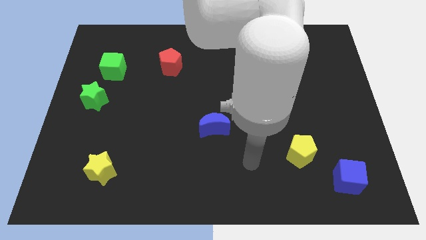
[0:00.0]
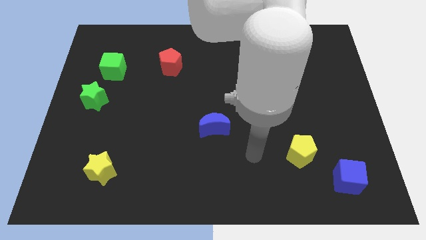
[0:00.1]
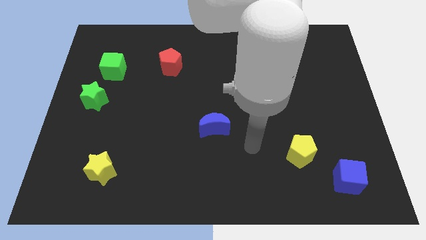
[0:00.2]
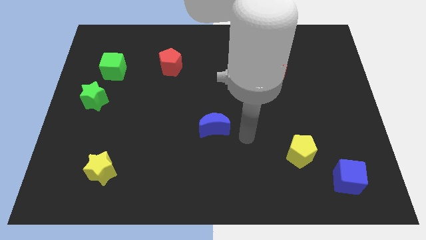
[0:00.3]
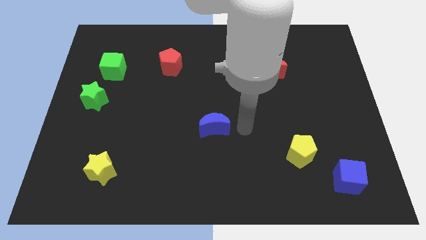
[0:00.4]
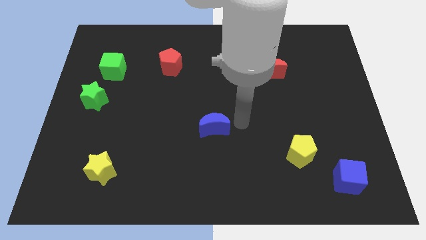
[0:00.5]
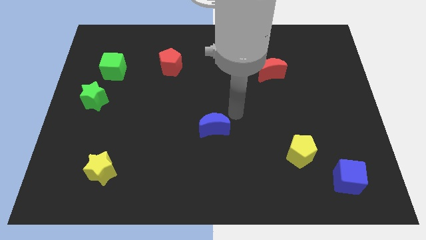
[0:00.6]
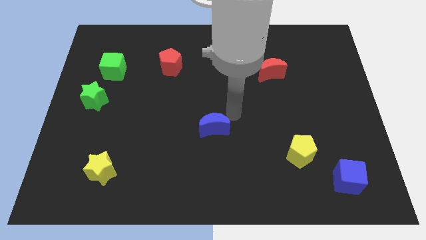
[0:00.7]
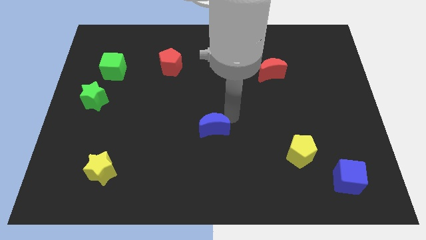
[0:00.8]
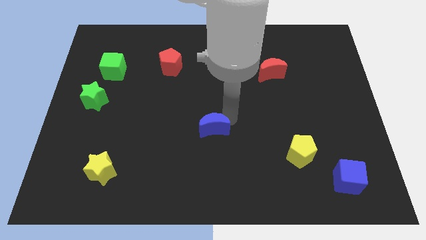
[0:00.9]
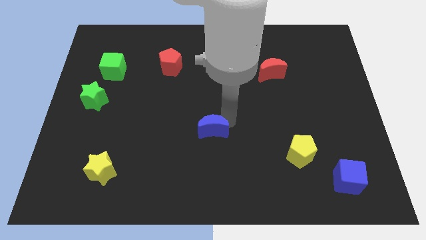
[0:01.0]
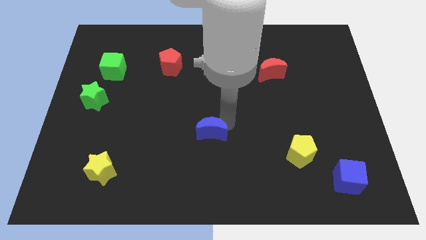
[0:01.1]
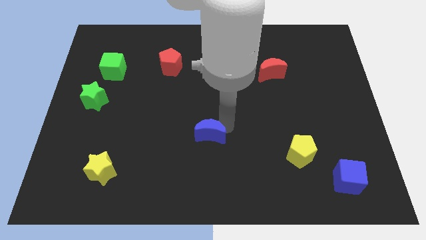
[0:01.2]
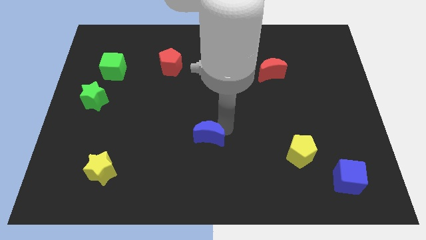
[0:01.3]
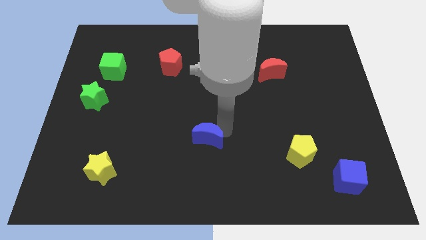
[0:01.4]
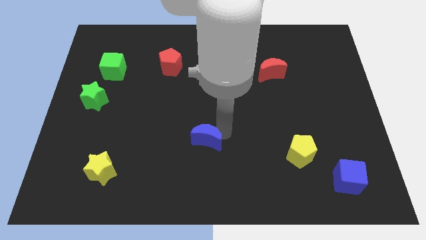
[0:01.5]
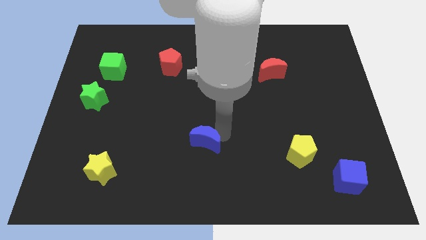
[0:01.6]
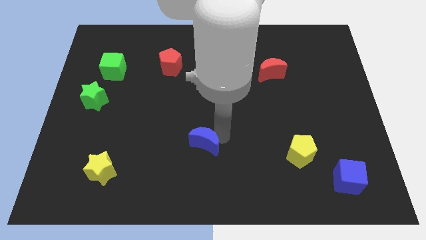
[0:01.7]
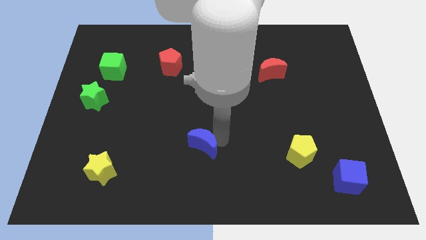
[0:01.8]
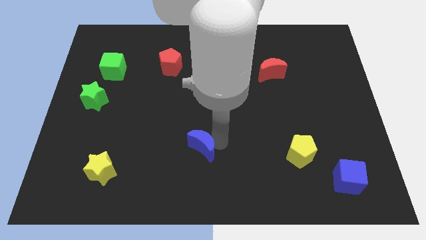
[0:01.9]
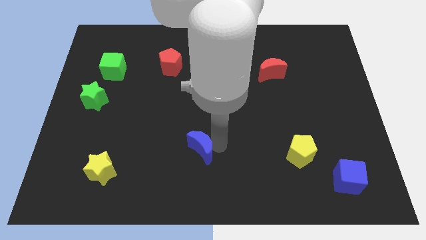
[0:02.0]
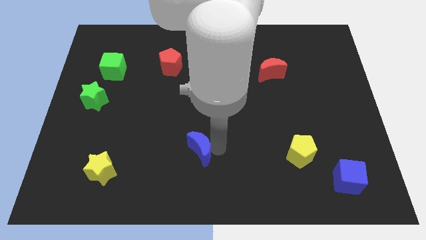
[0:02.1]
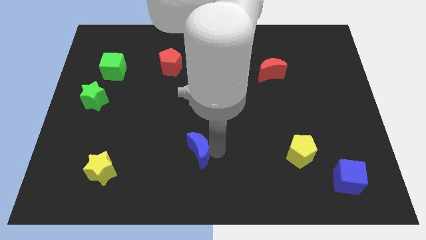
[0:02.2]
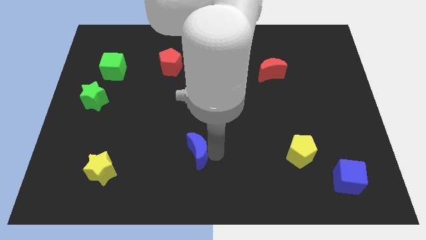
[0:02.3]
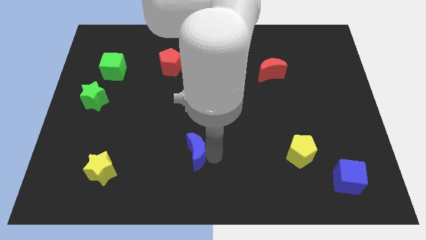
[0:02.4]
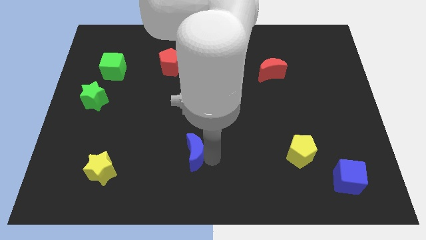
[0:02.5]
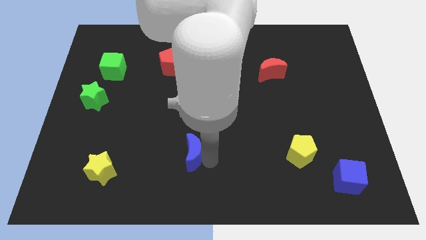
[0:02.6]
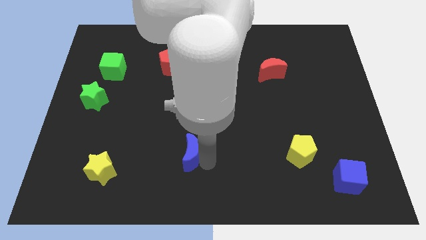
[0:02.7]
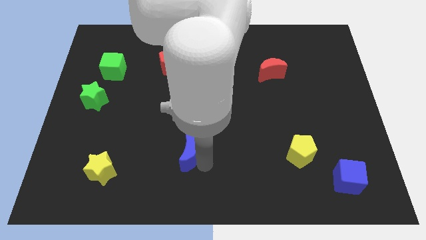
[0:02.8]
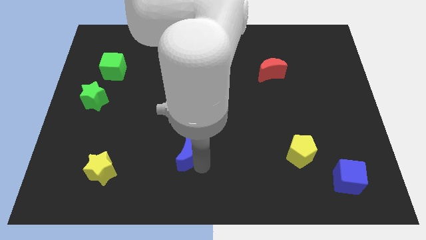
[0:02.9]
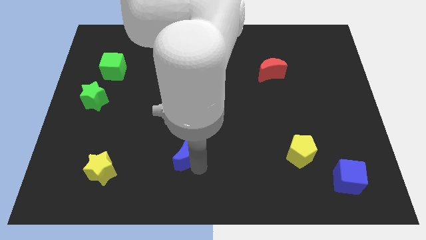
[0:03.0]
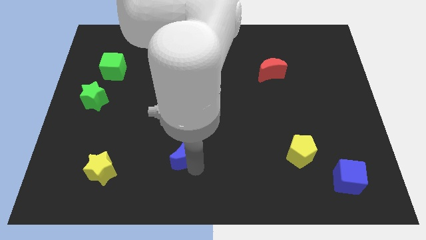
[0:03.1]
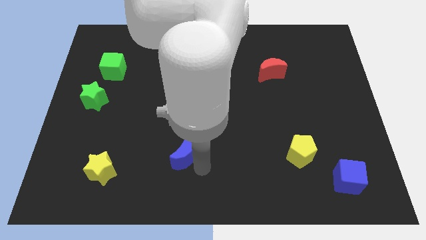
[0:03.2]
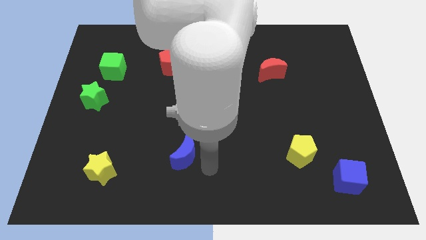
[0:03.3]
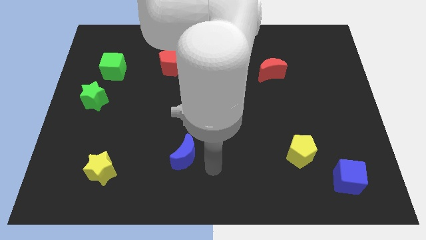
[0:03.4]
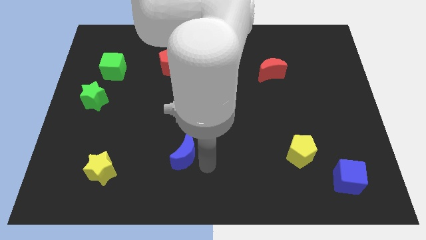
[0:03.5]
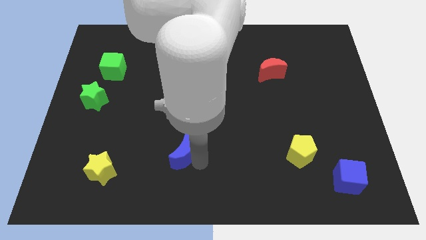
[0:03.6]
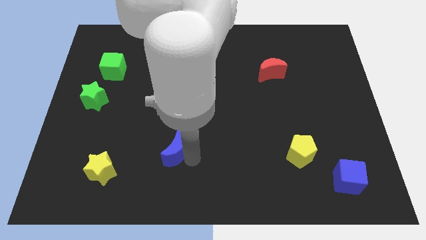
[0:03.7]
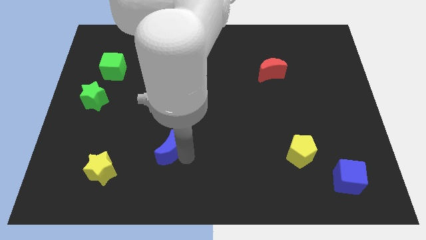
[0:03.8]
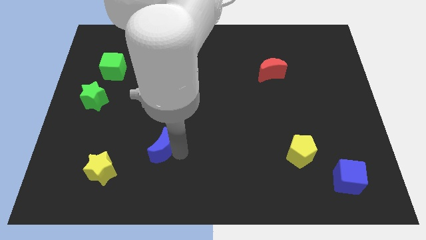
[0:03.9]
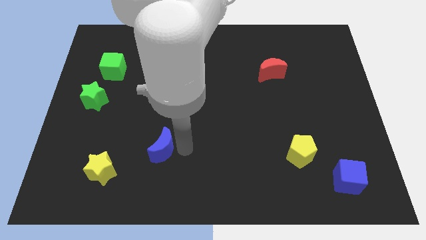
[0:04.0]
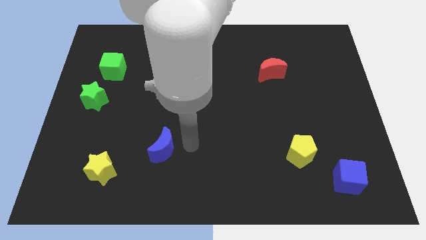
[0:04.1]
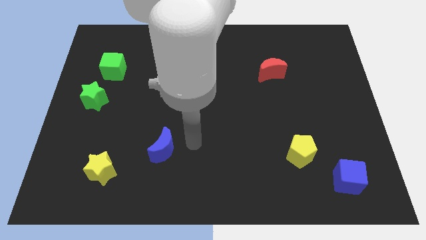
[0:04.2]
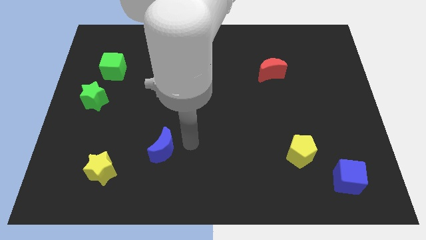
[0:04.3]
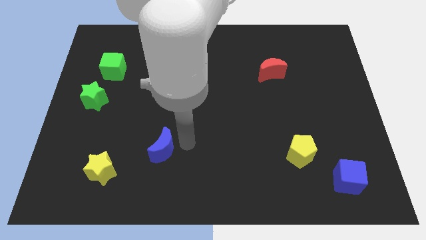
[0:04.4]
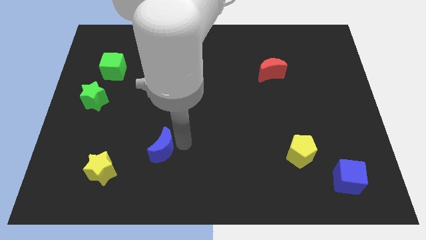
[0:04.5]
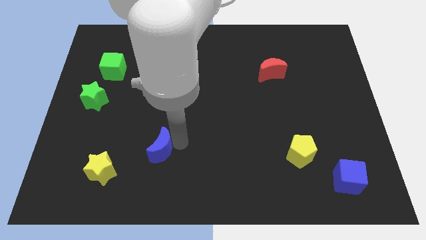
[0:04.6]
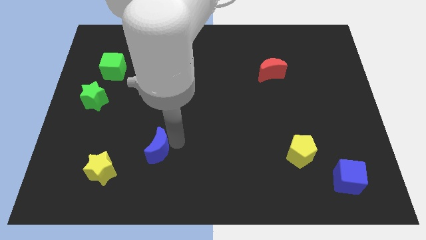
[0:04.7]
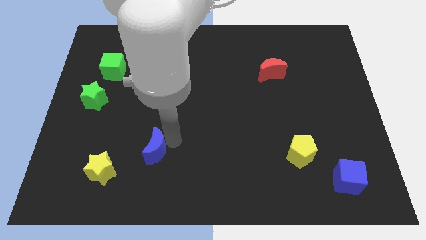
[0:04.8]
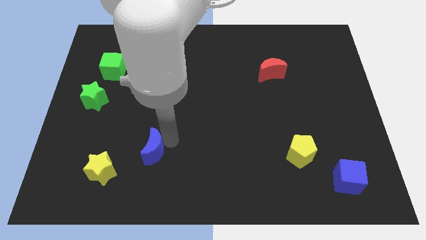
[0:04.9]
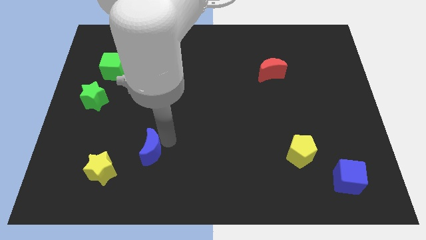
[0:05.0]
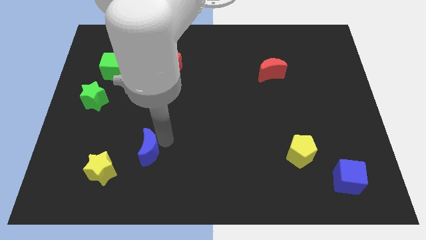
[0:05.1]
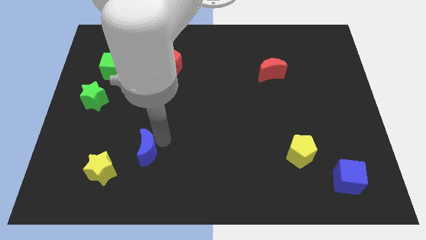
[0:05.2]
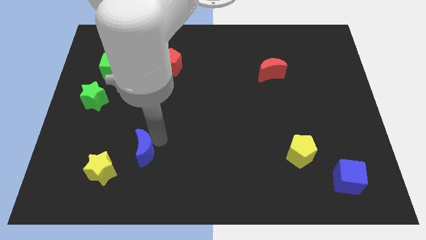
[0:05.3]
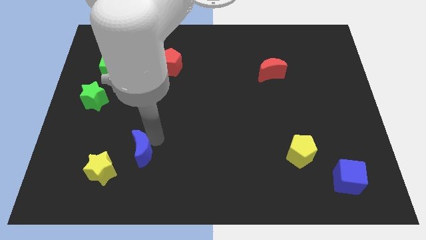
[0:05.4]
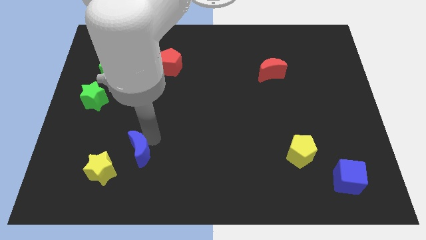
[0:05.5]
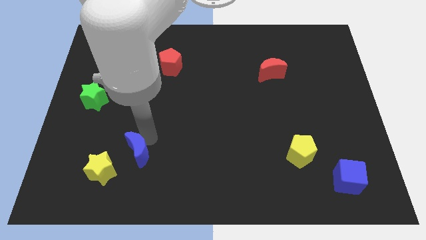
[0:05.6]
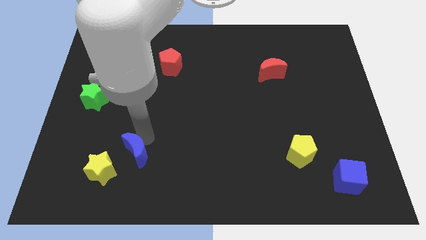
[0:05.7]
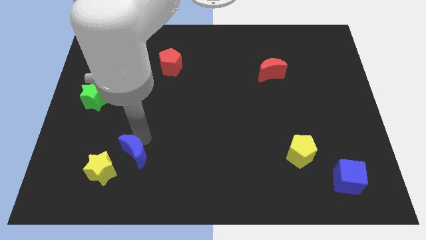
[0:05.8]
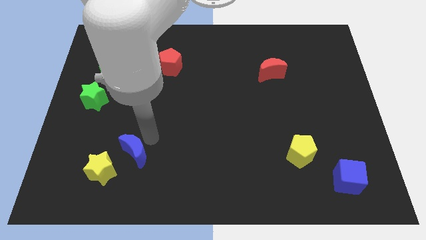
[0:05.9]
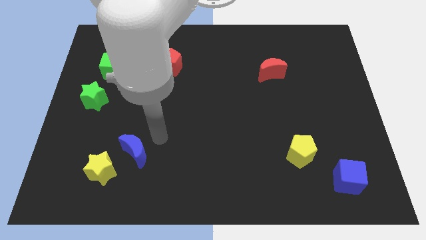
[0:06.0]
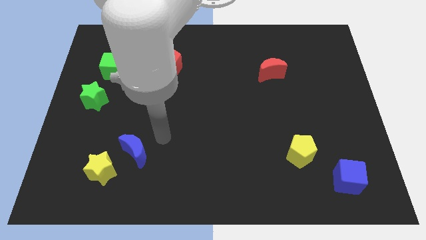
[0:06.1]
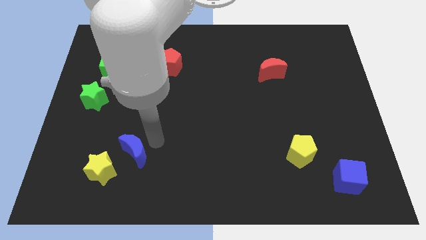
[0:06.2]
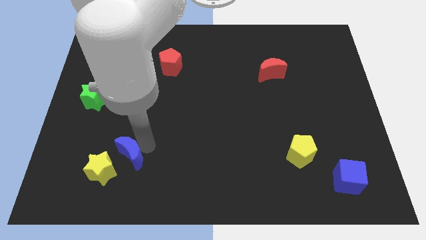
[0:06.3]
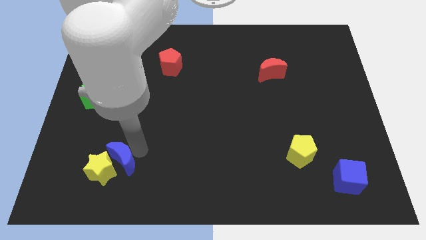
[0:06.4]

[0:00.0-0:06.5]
slide the blue moon close to the yellow star

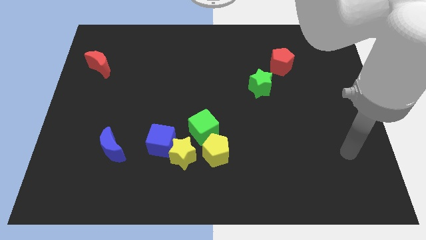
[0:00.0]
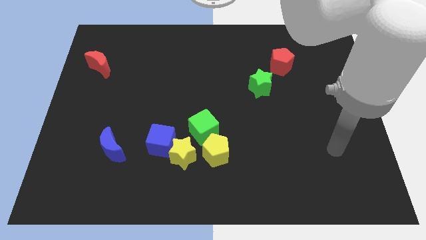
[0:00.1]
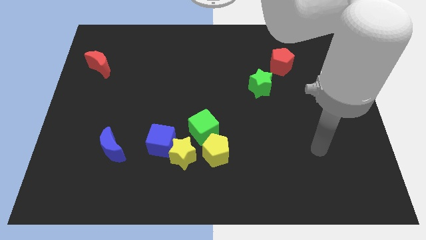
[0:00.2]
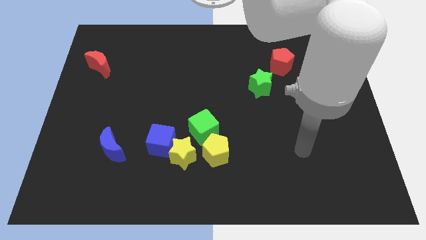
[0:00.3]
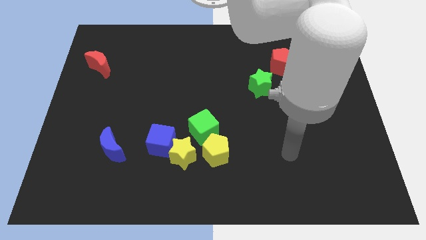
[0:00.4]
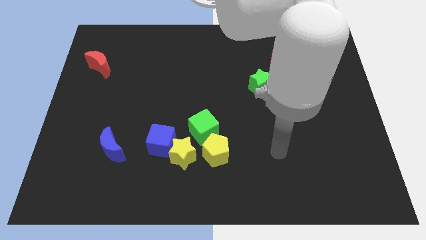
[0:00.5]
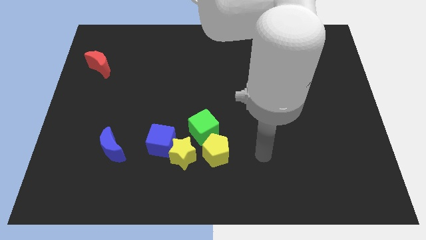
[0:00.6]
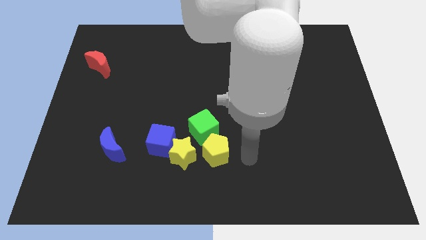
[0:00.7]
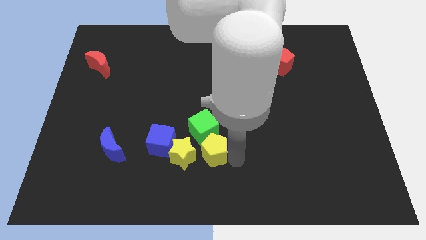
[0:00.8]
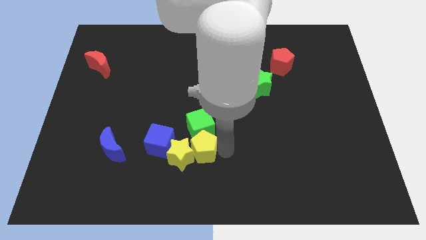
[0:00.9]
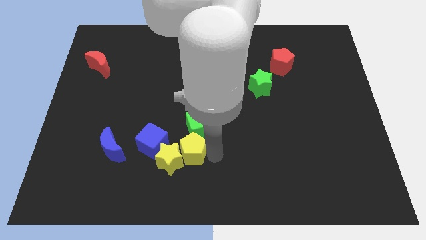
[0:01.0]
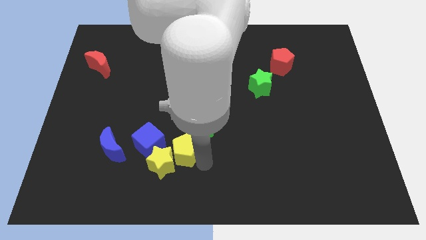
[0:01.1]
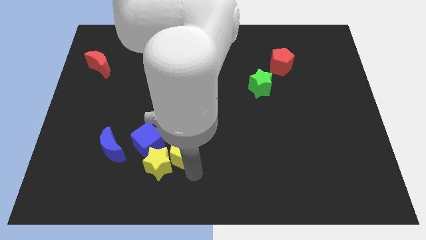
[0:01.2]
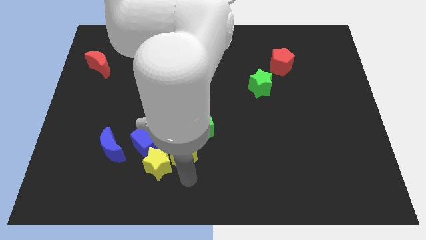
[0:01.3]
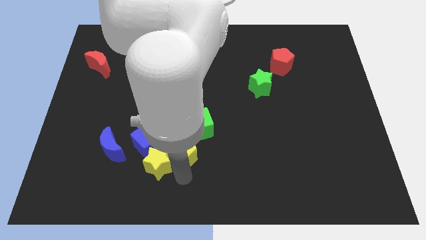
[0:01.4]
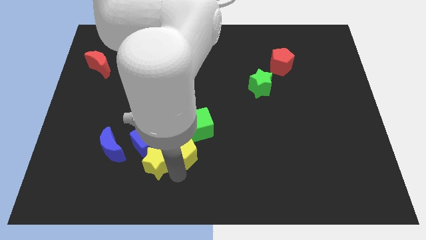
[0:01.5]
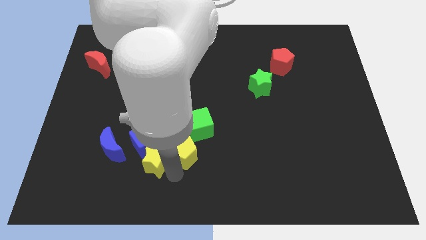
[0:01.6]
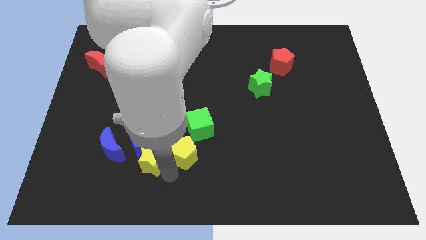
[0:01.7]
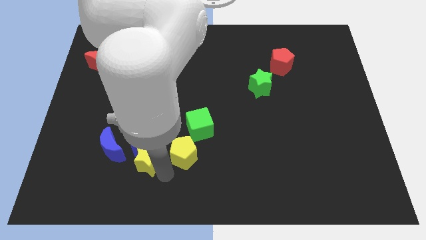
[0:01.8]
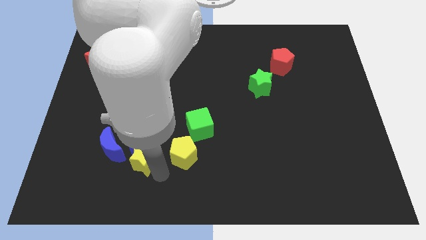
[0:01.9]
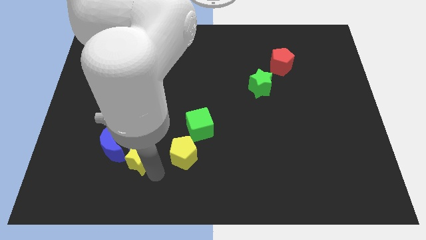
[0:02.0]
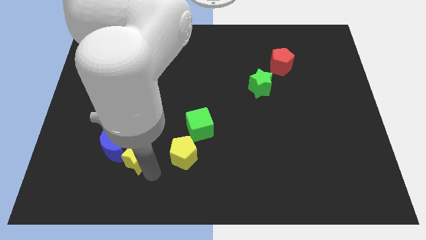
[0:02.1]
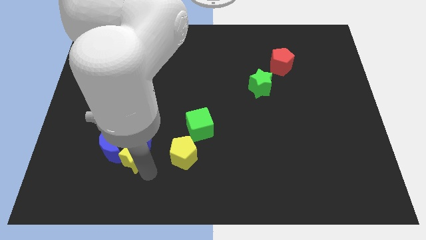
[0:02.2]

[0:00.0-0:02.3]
push the yellow star to the blue moon
